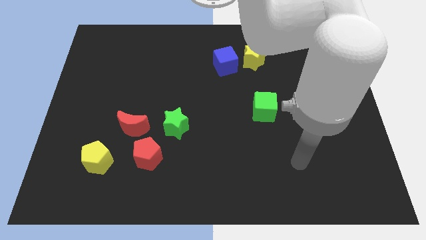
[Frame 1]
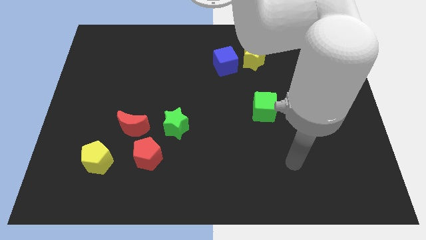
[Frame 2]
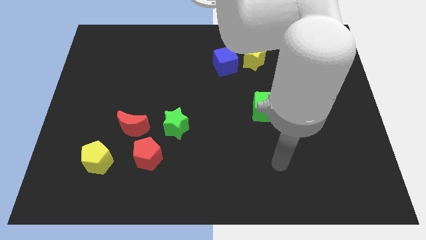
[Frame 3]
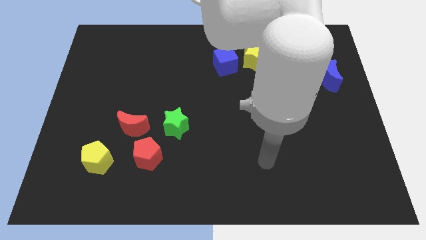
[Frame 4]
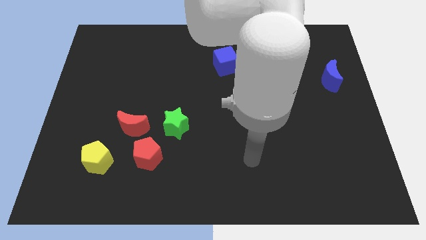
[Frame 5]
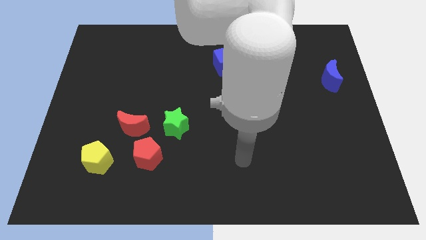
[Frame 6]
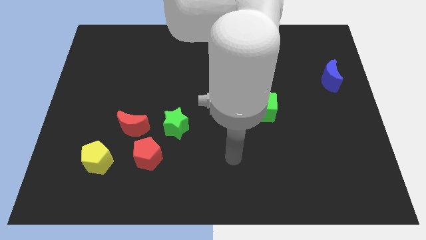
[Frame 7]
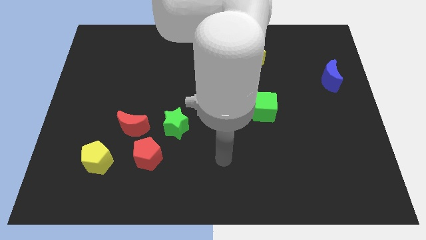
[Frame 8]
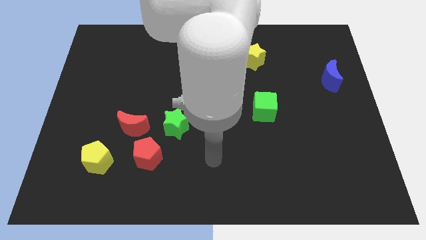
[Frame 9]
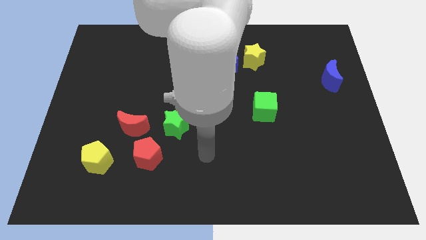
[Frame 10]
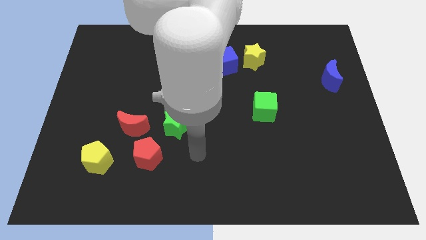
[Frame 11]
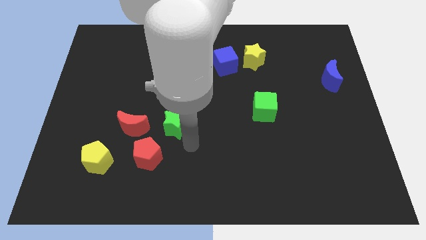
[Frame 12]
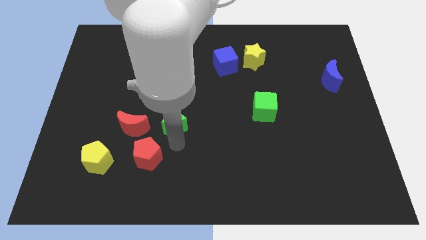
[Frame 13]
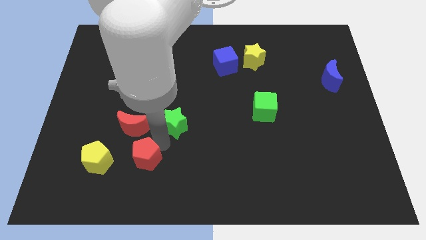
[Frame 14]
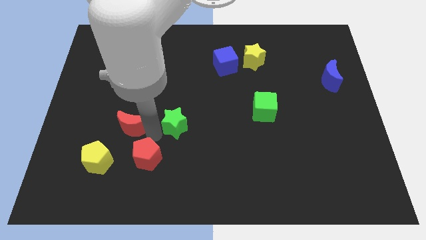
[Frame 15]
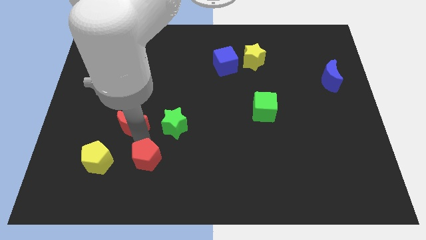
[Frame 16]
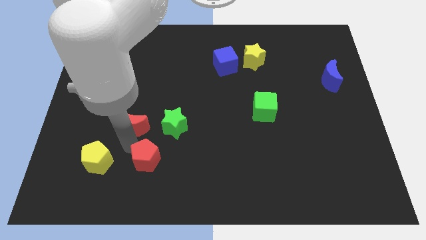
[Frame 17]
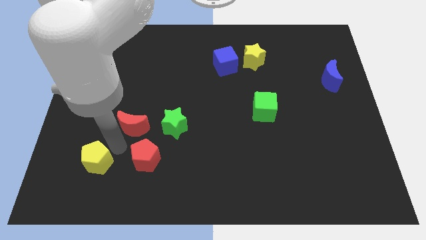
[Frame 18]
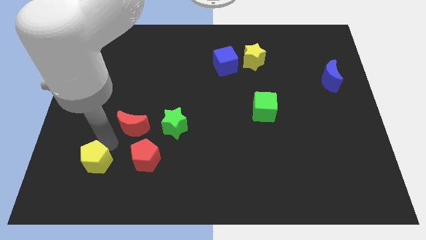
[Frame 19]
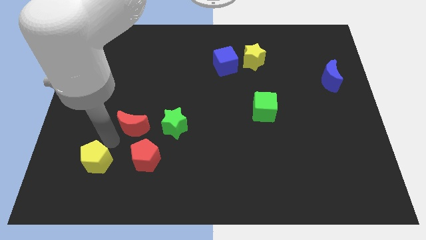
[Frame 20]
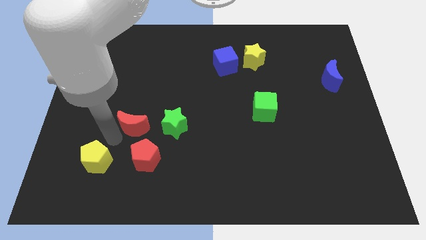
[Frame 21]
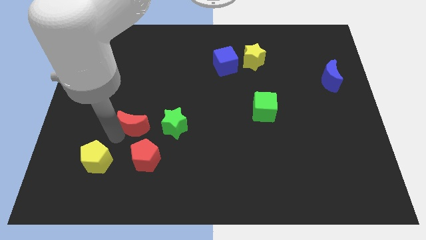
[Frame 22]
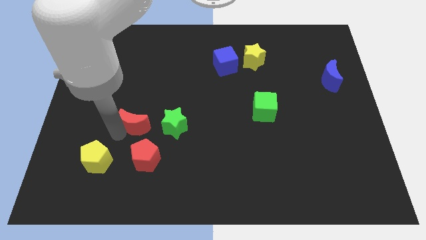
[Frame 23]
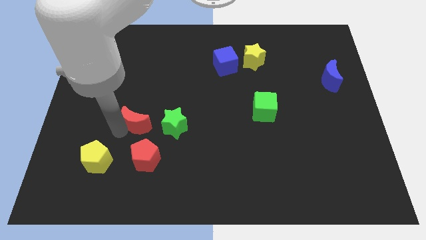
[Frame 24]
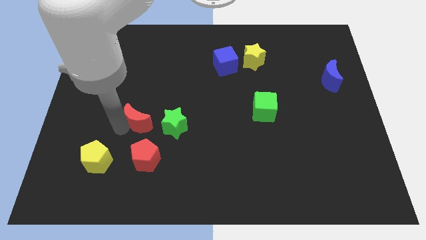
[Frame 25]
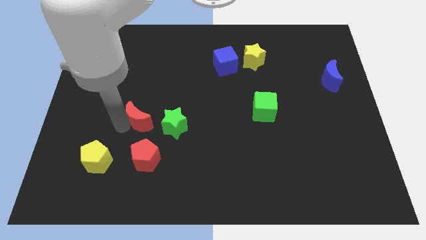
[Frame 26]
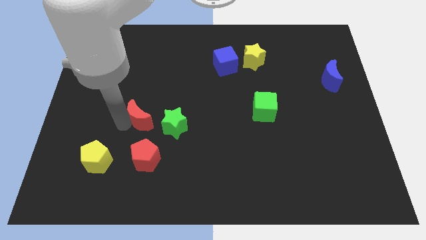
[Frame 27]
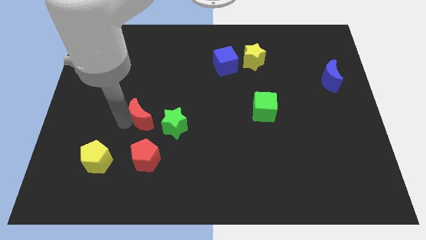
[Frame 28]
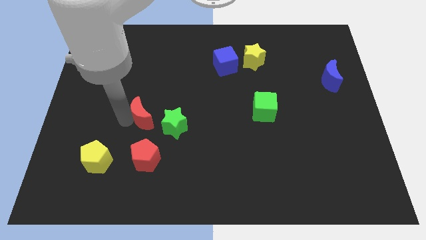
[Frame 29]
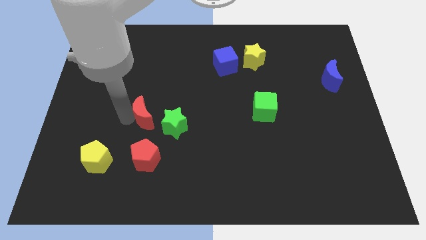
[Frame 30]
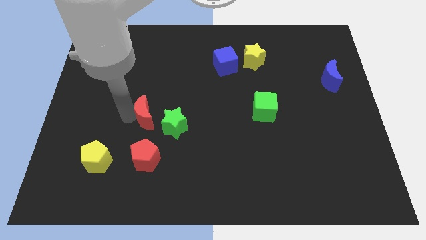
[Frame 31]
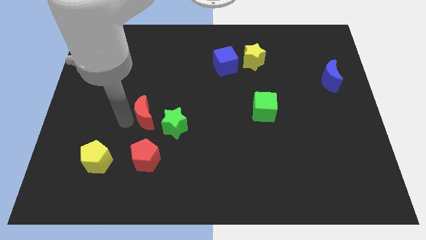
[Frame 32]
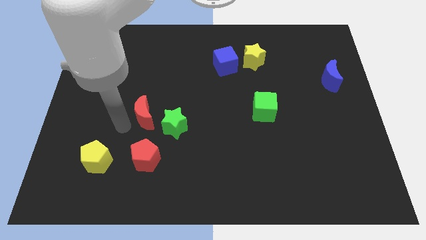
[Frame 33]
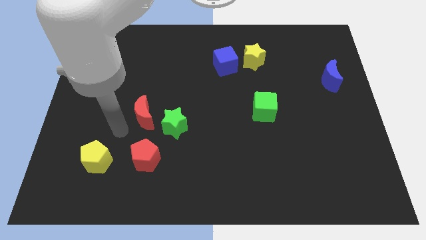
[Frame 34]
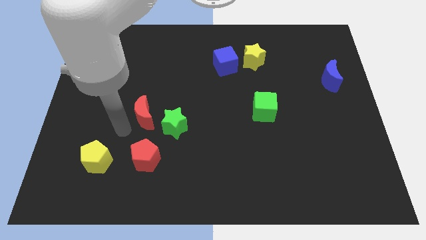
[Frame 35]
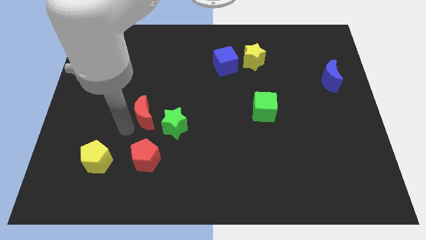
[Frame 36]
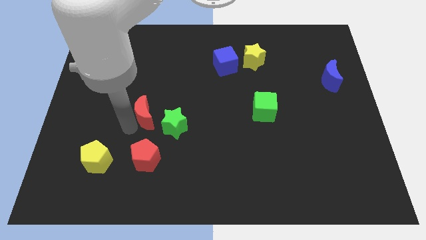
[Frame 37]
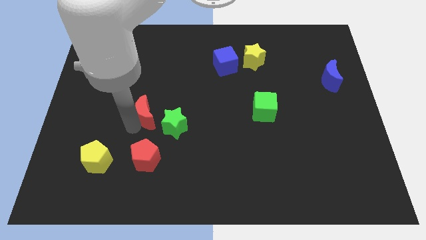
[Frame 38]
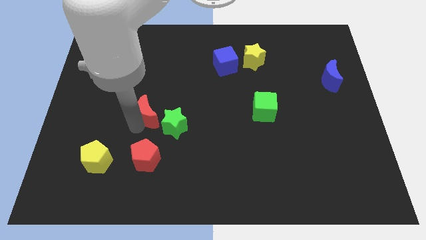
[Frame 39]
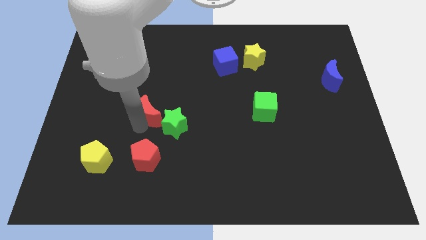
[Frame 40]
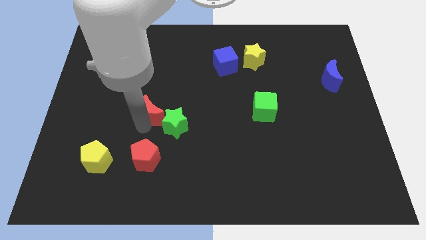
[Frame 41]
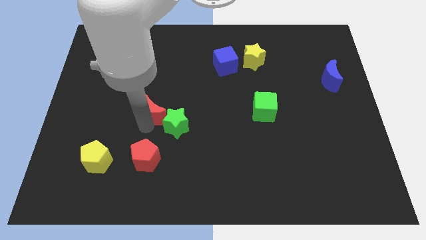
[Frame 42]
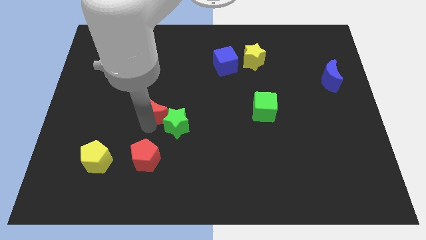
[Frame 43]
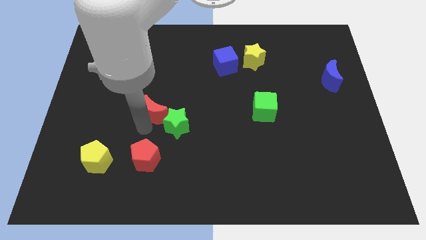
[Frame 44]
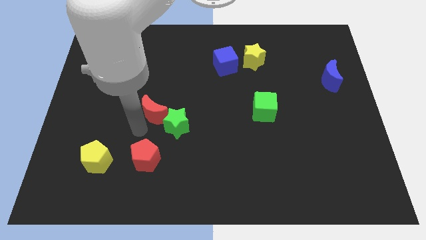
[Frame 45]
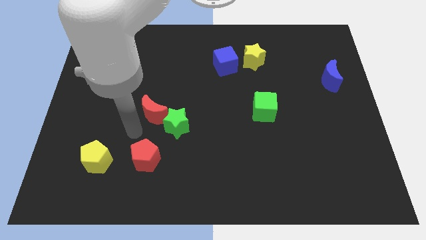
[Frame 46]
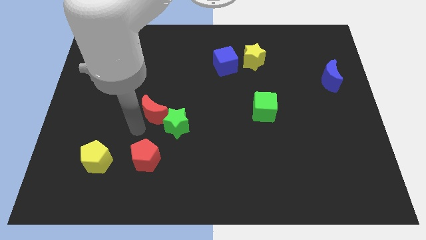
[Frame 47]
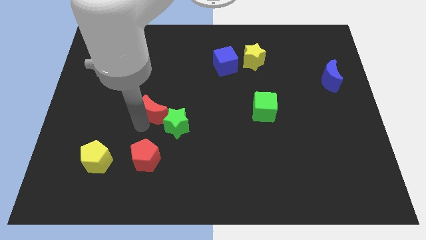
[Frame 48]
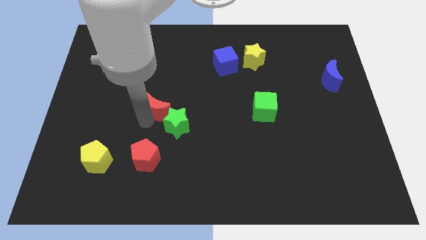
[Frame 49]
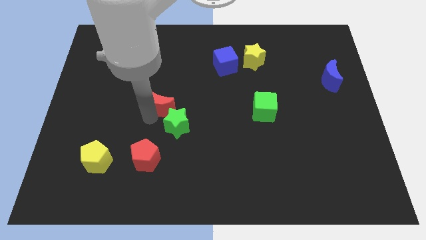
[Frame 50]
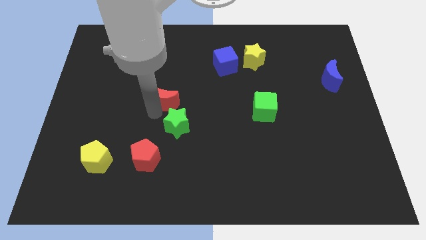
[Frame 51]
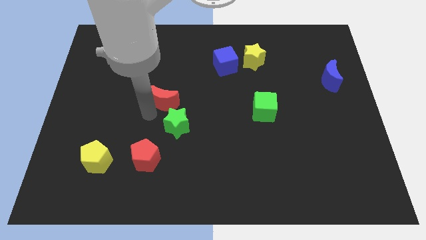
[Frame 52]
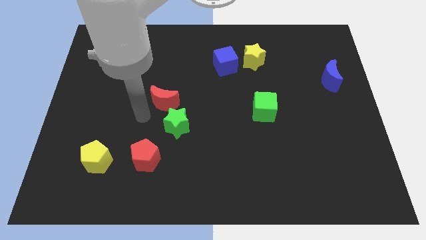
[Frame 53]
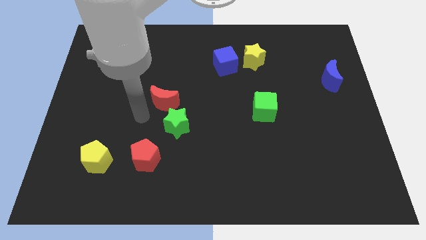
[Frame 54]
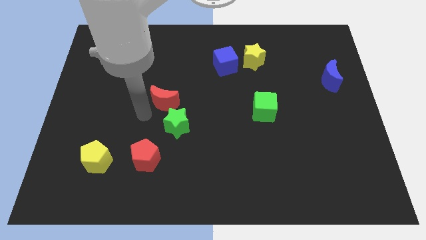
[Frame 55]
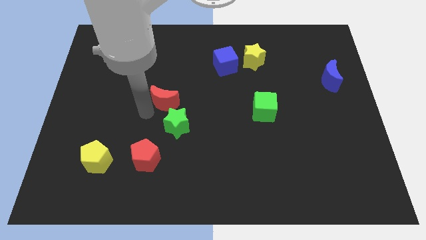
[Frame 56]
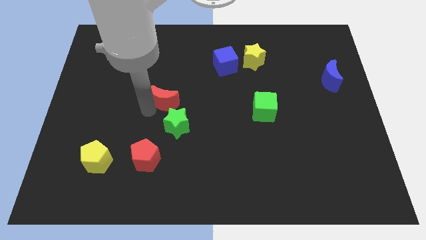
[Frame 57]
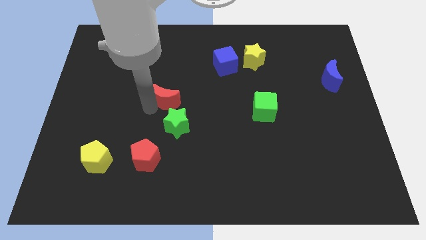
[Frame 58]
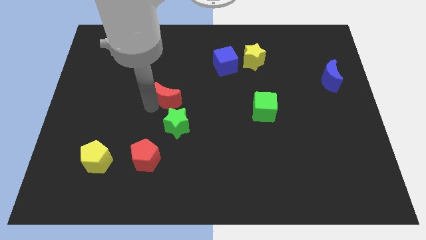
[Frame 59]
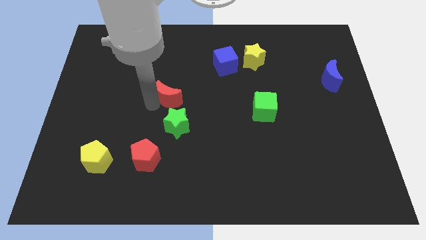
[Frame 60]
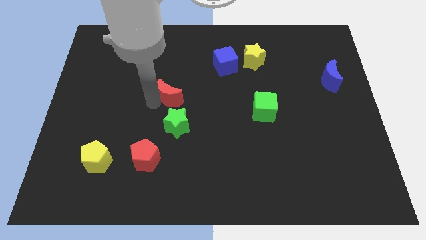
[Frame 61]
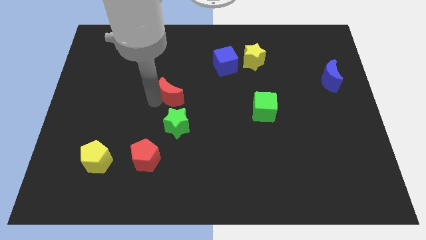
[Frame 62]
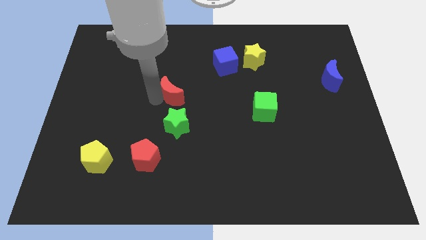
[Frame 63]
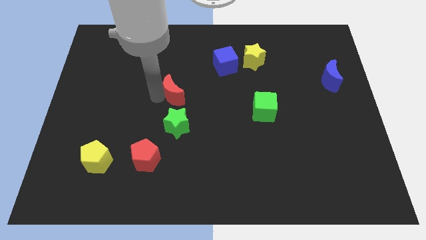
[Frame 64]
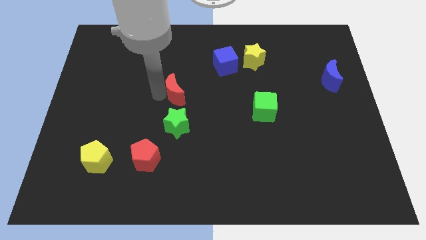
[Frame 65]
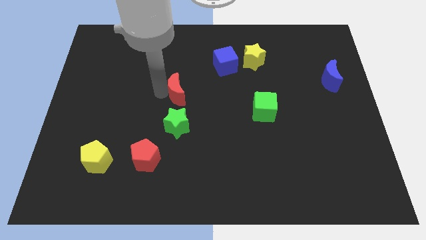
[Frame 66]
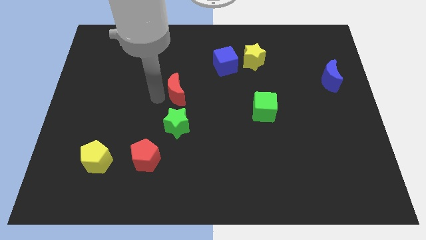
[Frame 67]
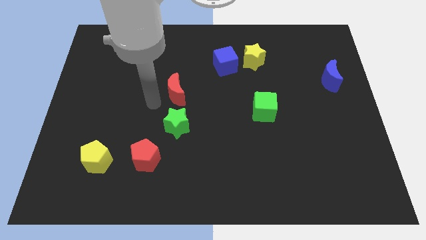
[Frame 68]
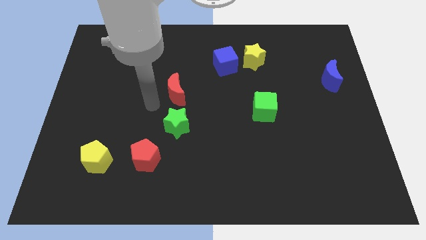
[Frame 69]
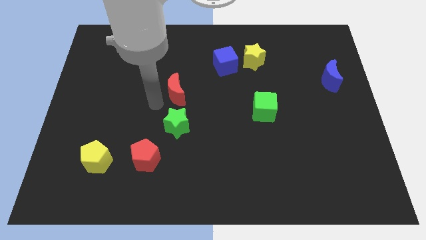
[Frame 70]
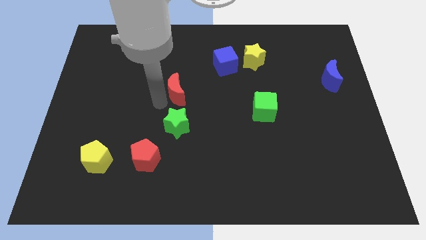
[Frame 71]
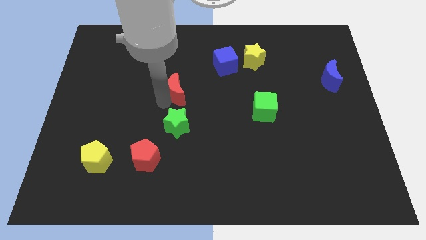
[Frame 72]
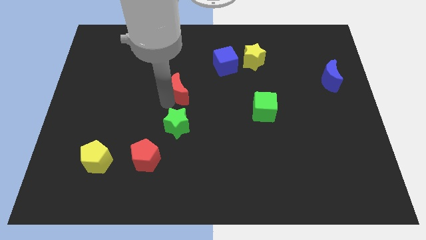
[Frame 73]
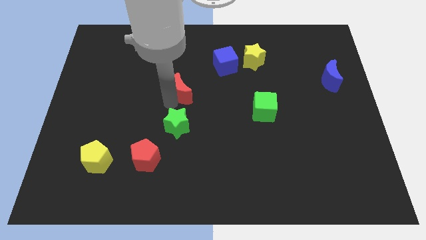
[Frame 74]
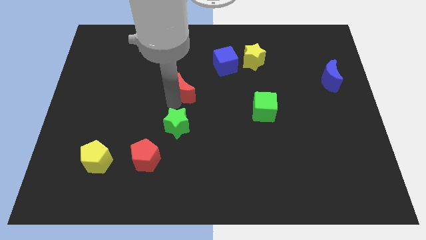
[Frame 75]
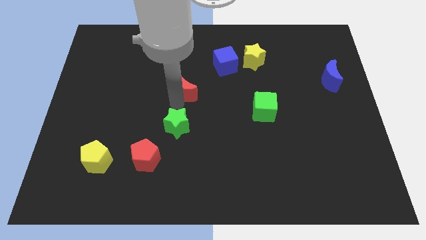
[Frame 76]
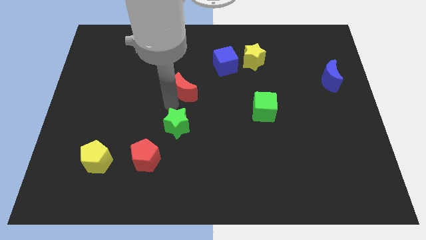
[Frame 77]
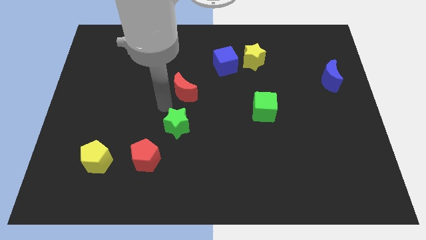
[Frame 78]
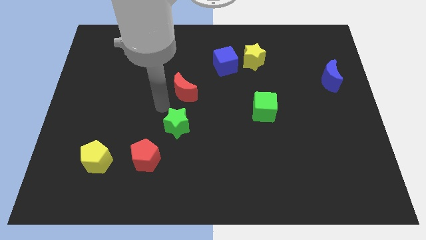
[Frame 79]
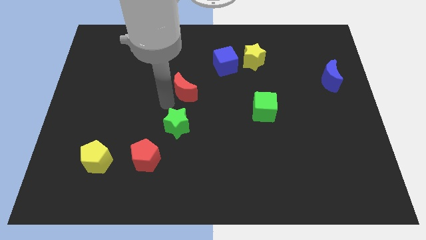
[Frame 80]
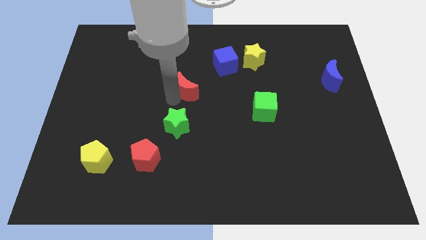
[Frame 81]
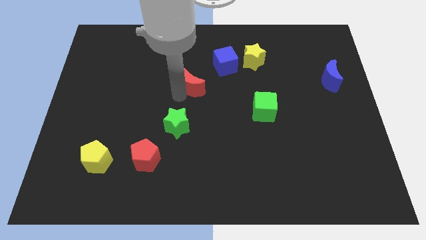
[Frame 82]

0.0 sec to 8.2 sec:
move the red moon diagonally down and to the left of the blue cube
